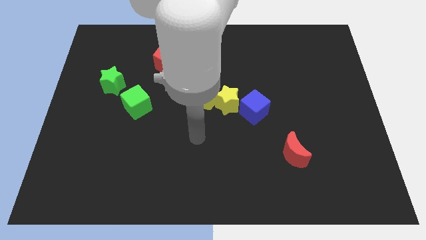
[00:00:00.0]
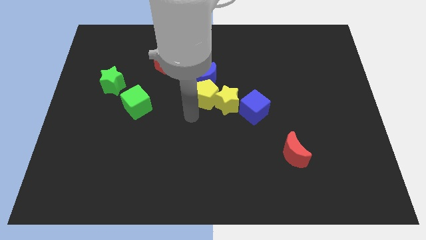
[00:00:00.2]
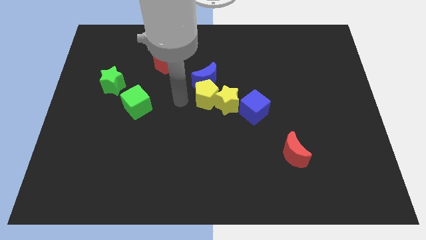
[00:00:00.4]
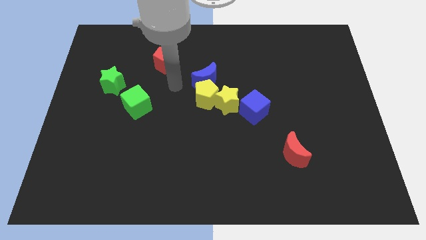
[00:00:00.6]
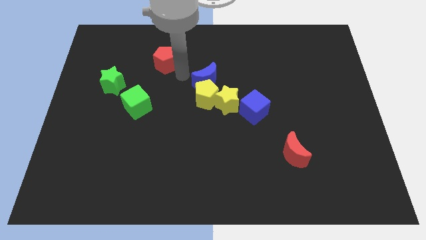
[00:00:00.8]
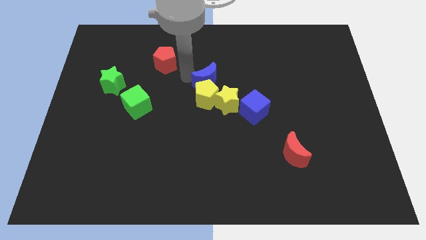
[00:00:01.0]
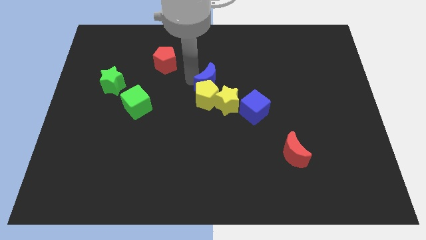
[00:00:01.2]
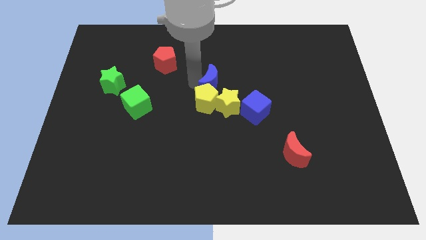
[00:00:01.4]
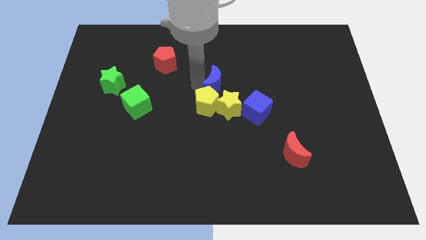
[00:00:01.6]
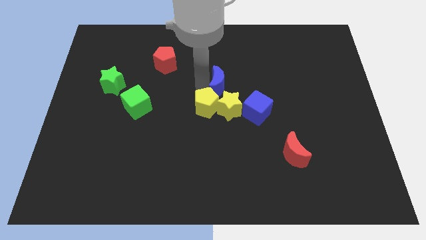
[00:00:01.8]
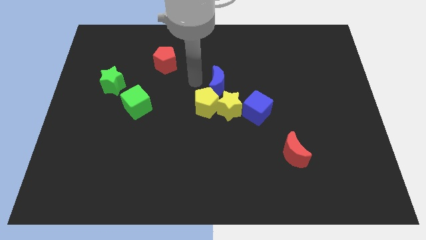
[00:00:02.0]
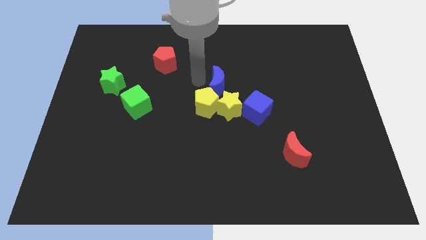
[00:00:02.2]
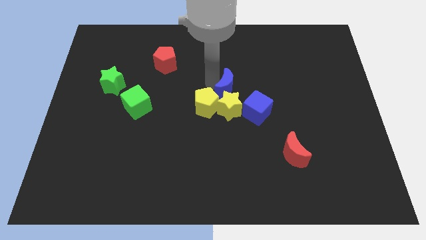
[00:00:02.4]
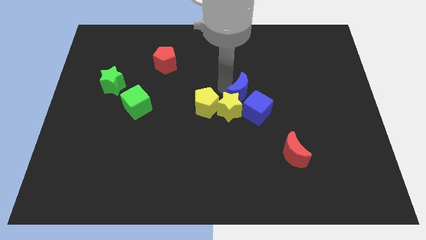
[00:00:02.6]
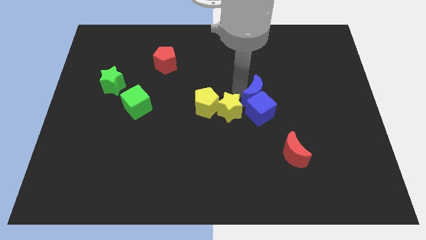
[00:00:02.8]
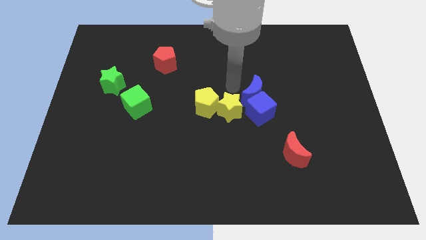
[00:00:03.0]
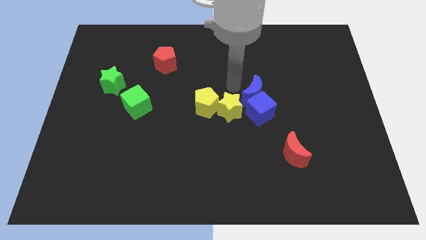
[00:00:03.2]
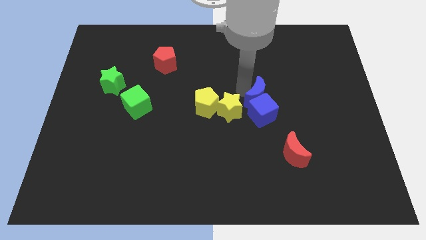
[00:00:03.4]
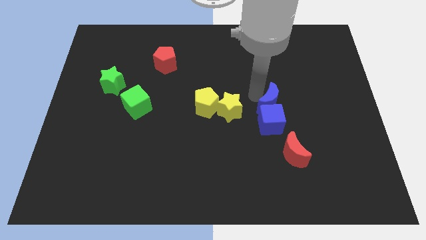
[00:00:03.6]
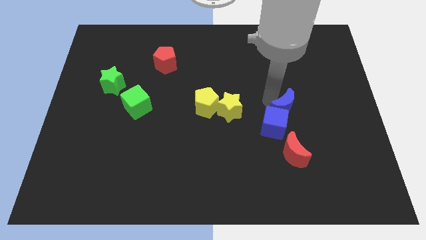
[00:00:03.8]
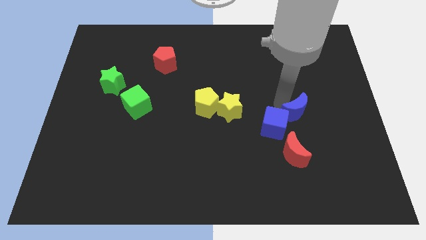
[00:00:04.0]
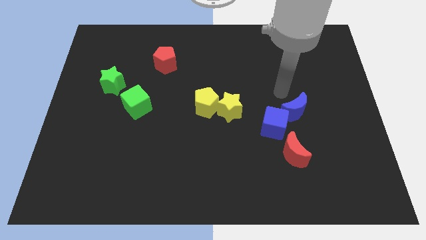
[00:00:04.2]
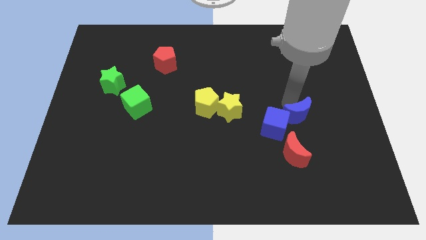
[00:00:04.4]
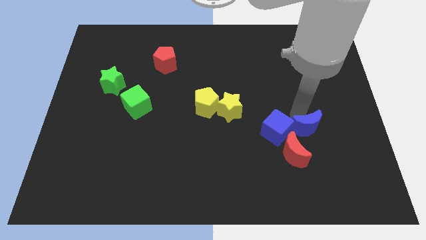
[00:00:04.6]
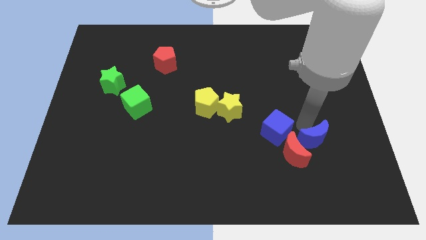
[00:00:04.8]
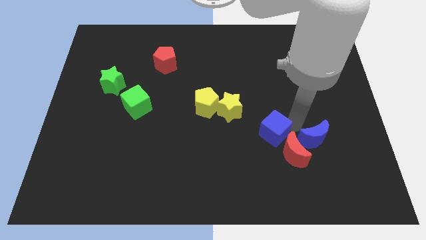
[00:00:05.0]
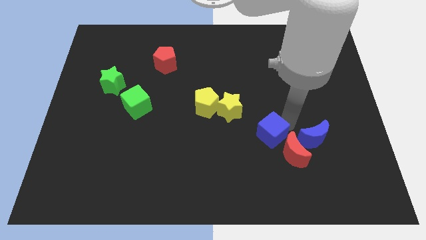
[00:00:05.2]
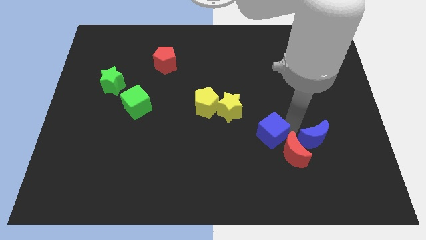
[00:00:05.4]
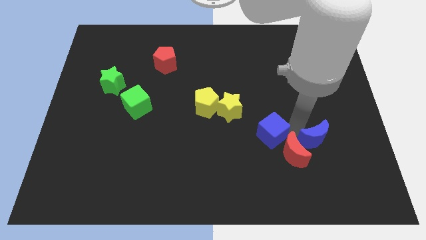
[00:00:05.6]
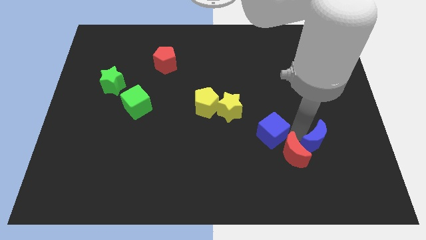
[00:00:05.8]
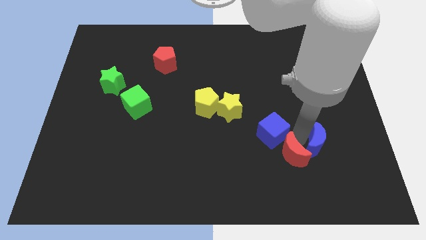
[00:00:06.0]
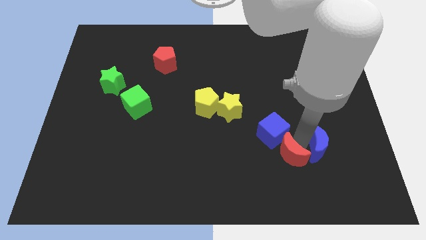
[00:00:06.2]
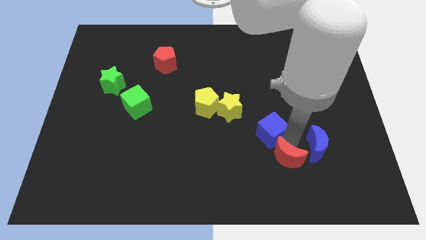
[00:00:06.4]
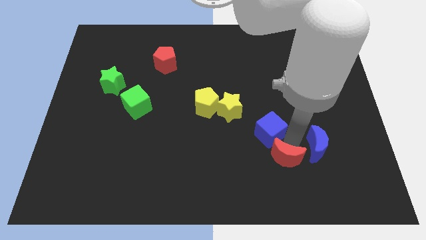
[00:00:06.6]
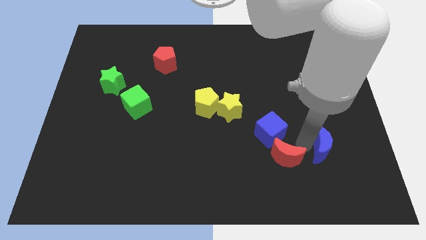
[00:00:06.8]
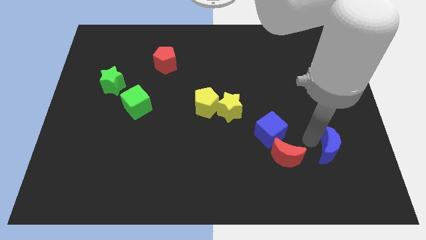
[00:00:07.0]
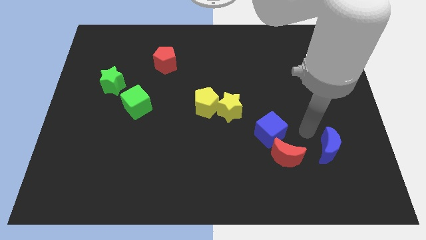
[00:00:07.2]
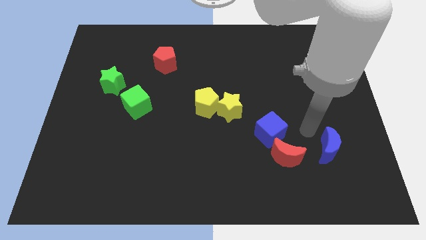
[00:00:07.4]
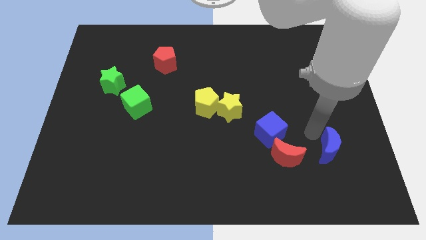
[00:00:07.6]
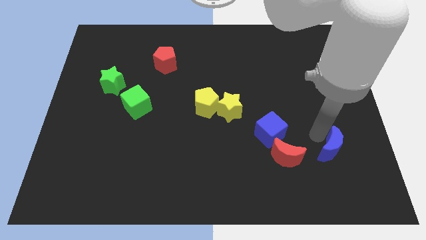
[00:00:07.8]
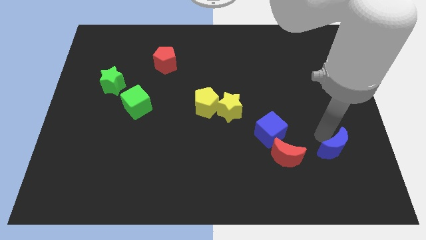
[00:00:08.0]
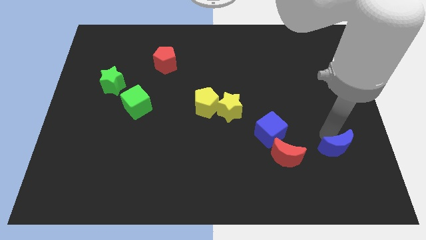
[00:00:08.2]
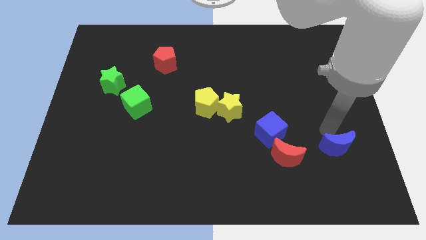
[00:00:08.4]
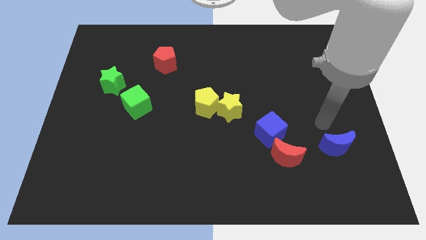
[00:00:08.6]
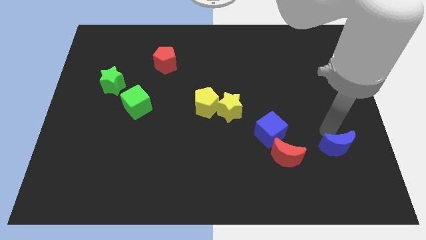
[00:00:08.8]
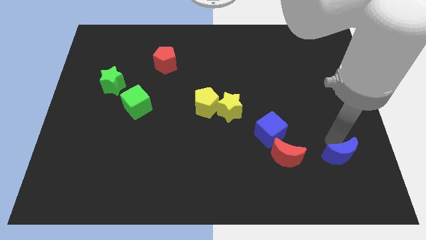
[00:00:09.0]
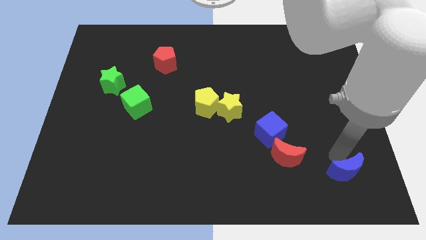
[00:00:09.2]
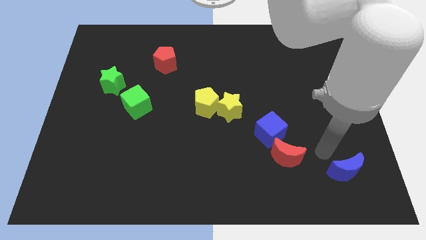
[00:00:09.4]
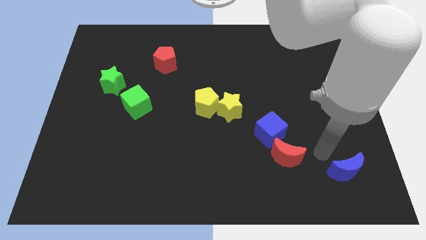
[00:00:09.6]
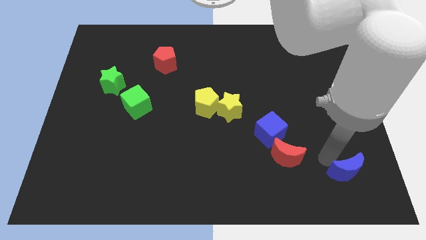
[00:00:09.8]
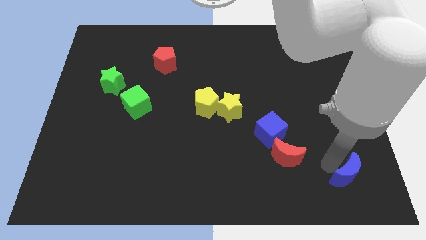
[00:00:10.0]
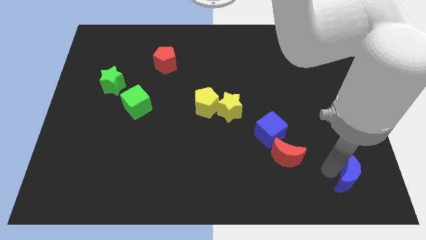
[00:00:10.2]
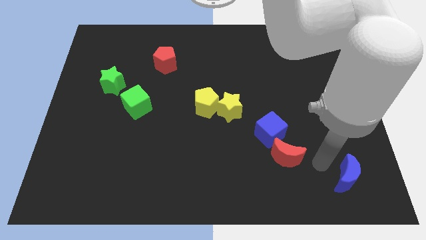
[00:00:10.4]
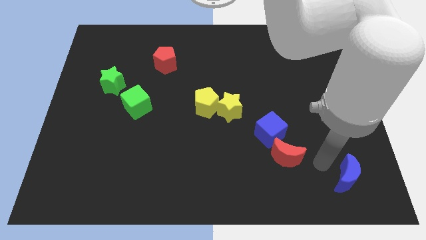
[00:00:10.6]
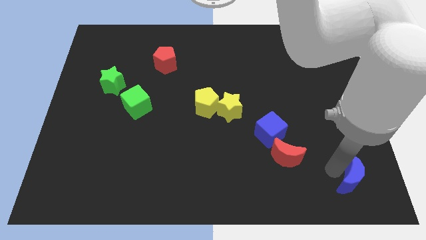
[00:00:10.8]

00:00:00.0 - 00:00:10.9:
put the blue moon to the bottom right

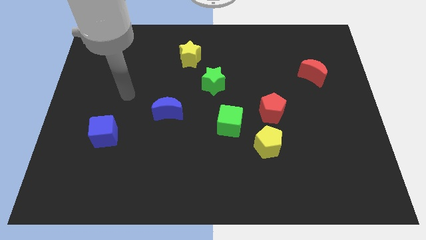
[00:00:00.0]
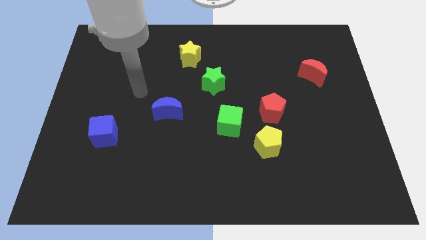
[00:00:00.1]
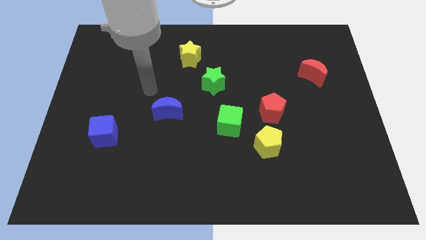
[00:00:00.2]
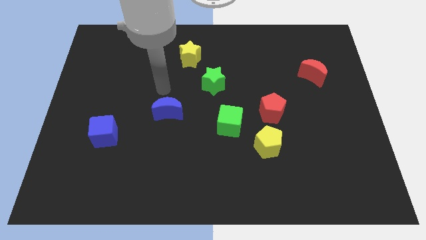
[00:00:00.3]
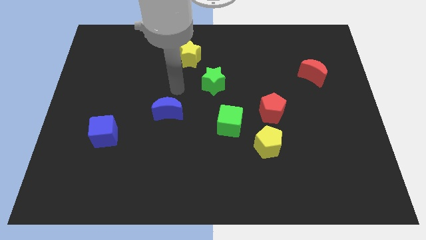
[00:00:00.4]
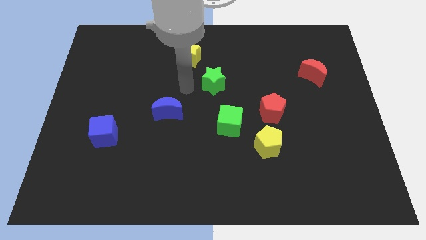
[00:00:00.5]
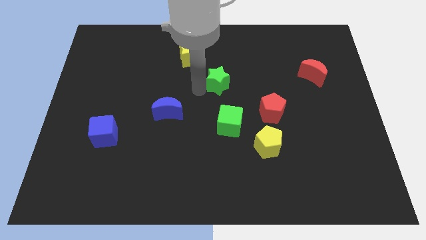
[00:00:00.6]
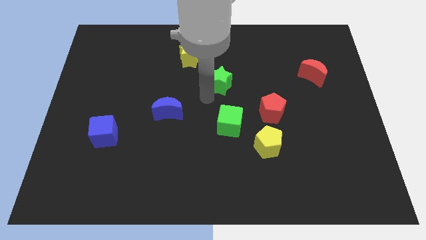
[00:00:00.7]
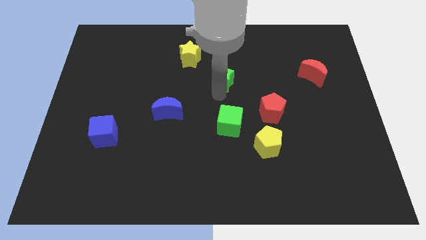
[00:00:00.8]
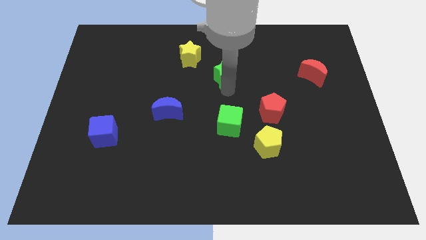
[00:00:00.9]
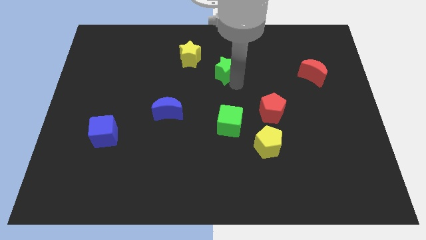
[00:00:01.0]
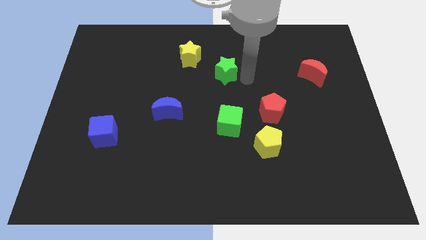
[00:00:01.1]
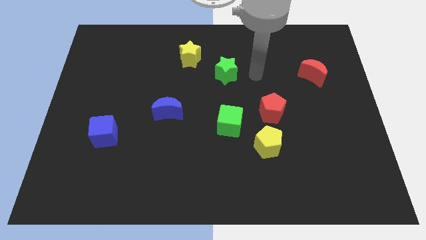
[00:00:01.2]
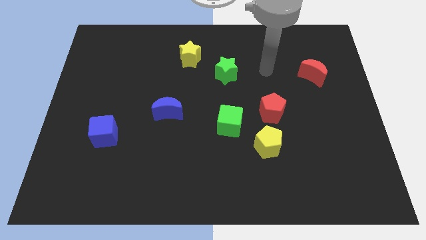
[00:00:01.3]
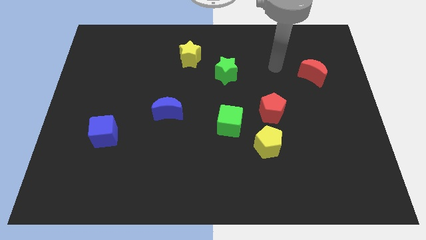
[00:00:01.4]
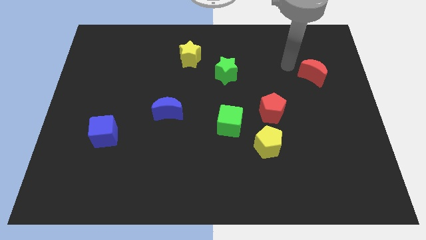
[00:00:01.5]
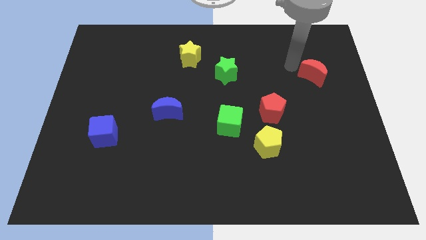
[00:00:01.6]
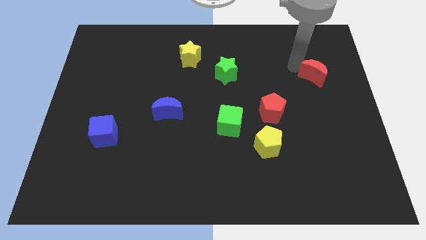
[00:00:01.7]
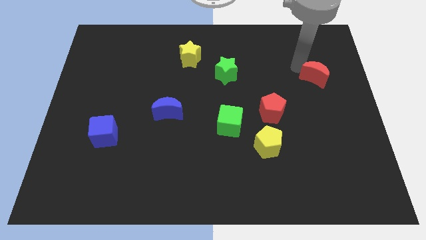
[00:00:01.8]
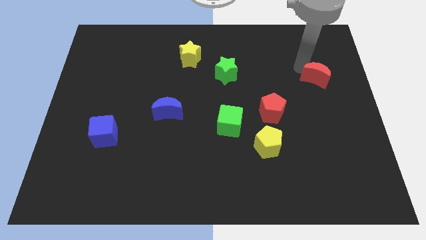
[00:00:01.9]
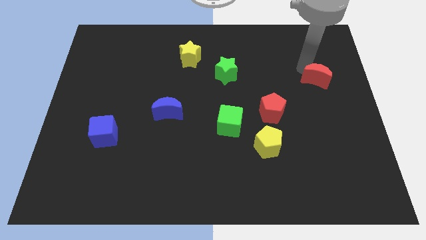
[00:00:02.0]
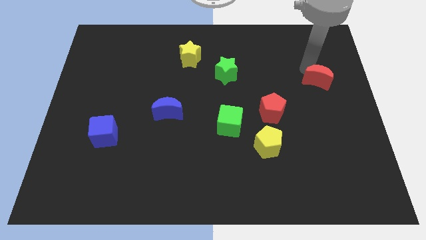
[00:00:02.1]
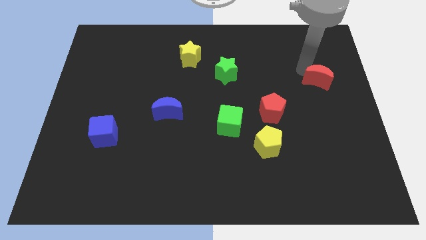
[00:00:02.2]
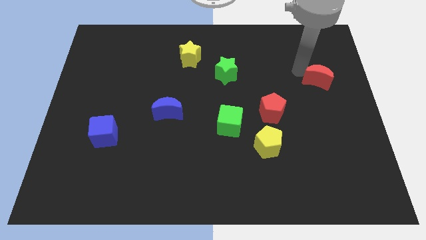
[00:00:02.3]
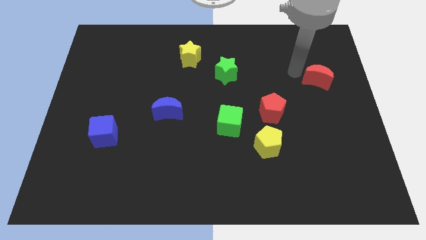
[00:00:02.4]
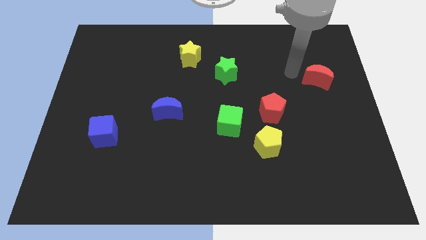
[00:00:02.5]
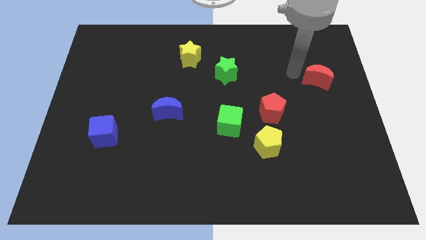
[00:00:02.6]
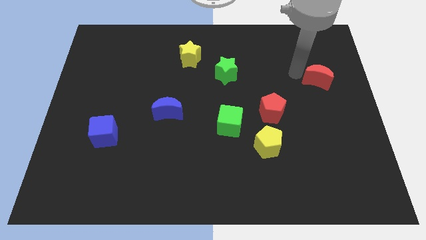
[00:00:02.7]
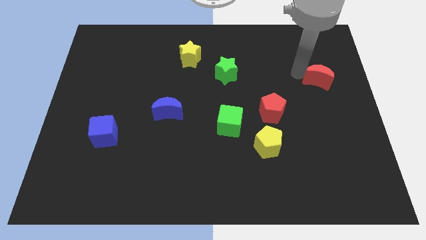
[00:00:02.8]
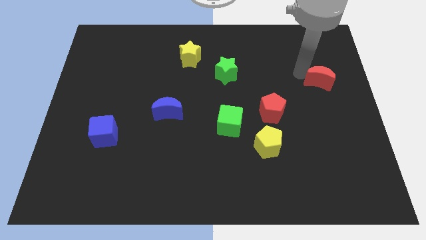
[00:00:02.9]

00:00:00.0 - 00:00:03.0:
slide the red moon to the right side
